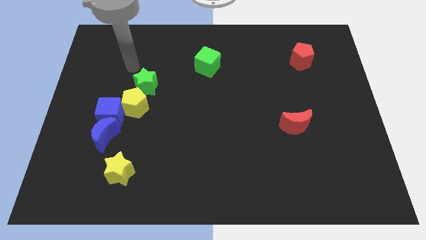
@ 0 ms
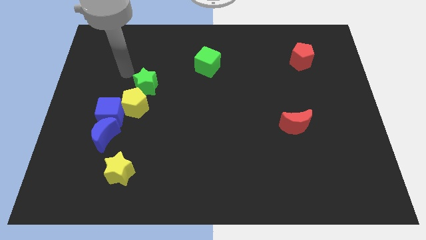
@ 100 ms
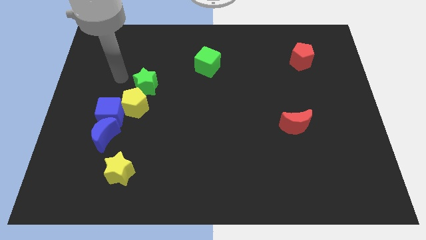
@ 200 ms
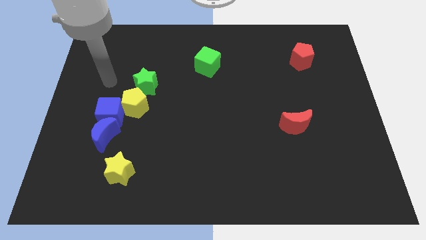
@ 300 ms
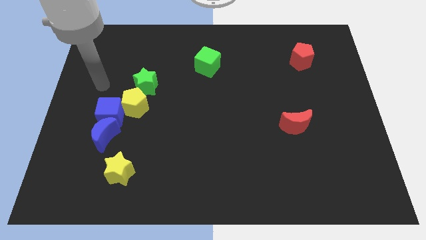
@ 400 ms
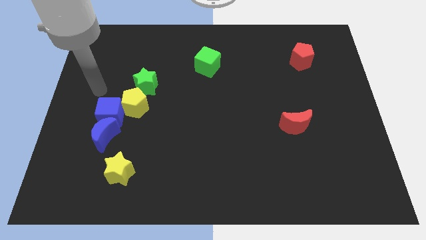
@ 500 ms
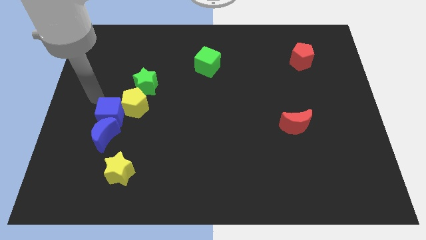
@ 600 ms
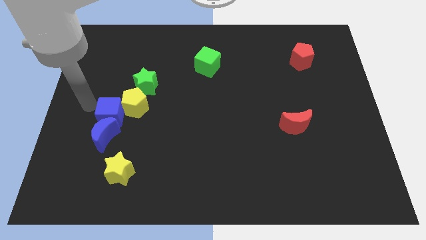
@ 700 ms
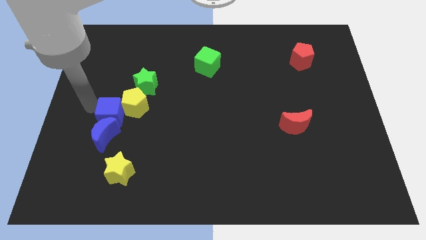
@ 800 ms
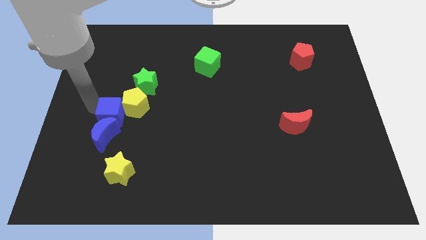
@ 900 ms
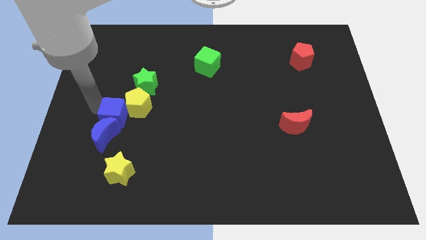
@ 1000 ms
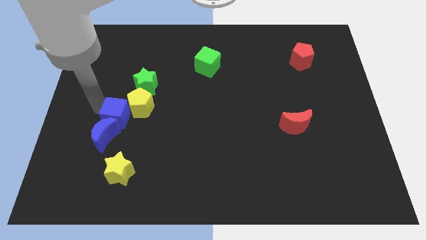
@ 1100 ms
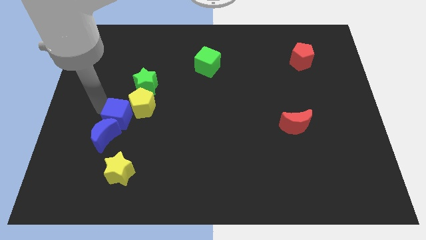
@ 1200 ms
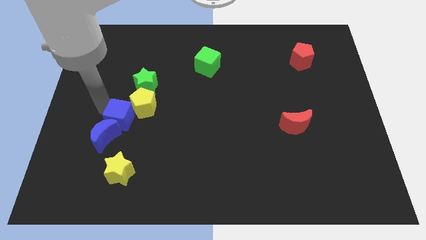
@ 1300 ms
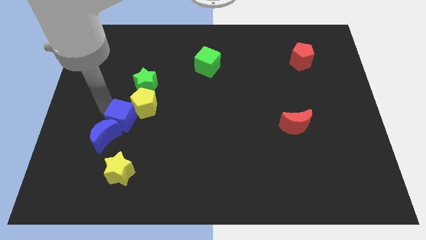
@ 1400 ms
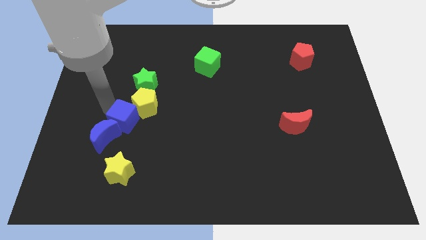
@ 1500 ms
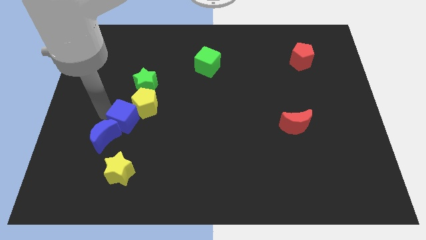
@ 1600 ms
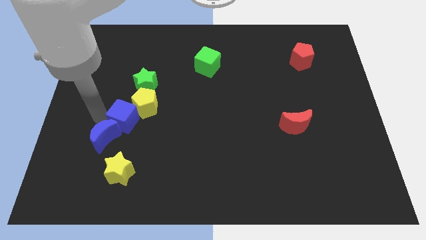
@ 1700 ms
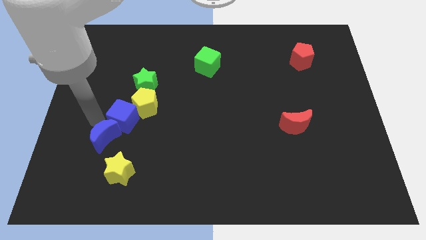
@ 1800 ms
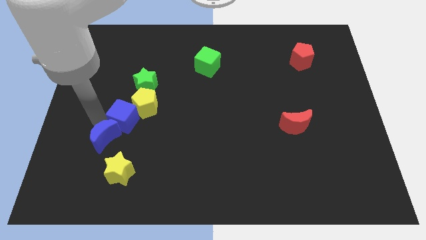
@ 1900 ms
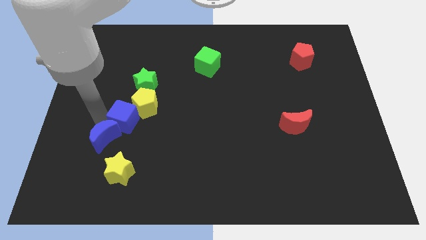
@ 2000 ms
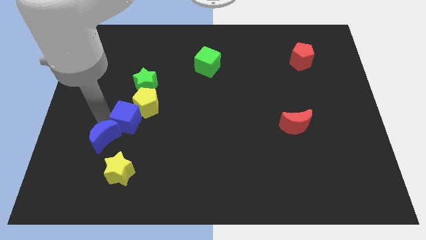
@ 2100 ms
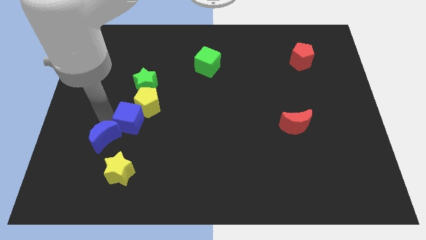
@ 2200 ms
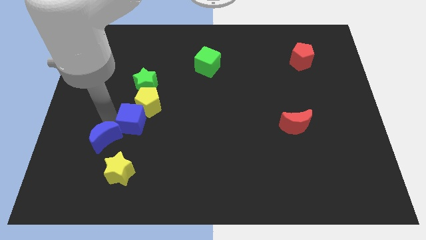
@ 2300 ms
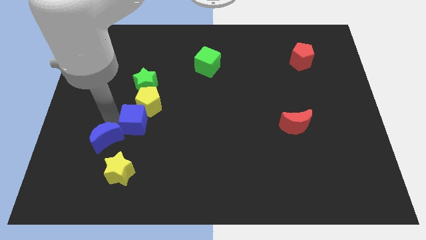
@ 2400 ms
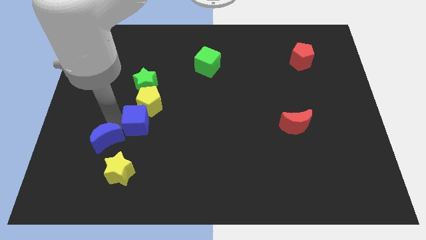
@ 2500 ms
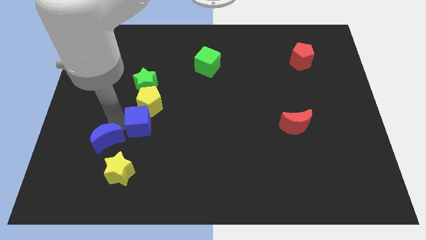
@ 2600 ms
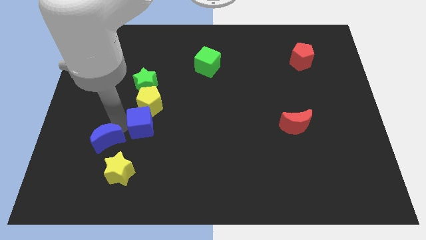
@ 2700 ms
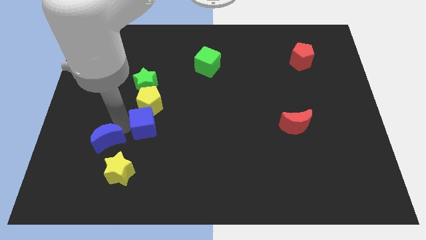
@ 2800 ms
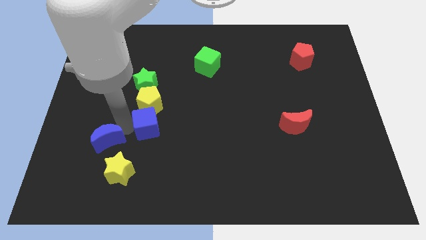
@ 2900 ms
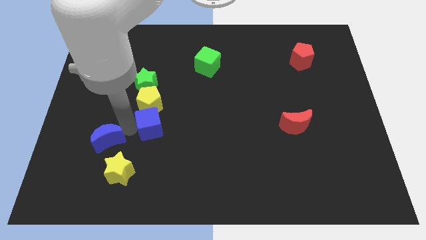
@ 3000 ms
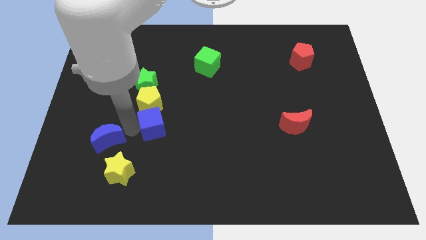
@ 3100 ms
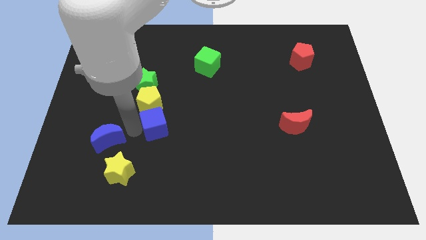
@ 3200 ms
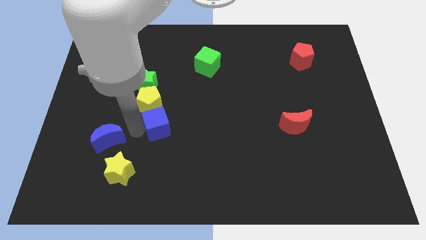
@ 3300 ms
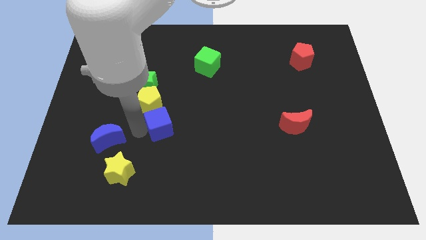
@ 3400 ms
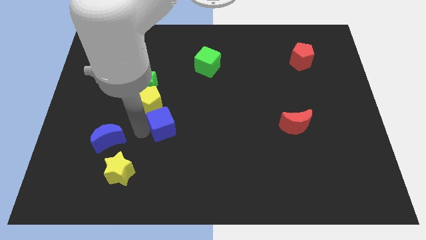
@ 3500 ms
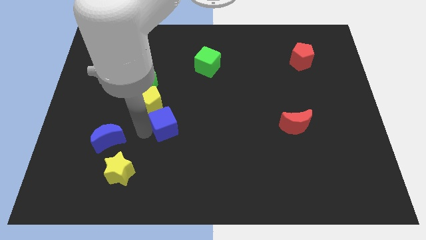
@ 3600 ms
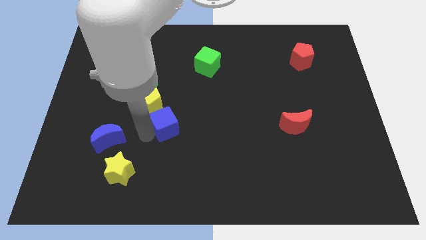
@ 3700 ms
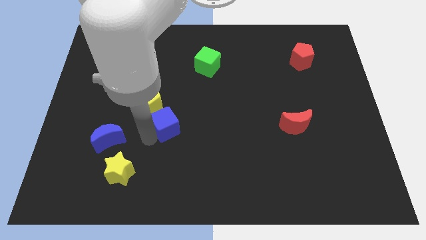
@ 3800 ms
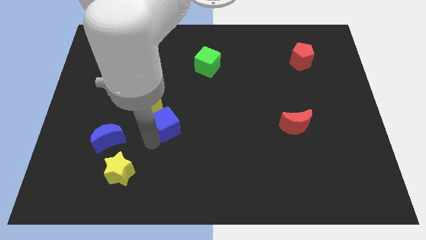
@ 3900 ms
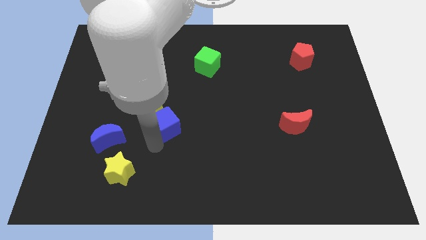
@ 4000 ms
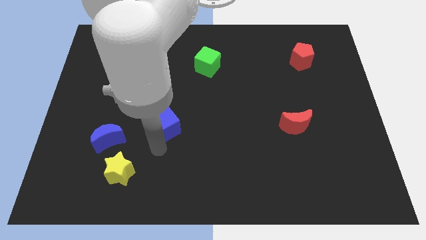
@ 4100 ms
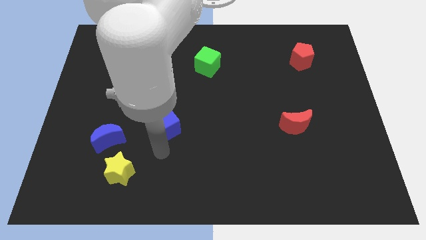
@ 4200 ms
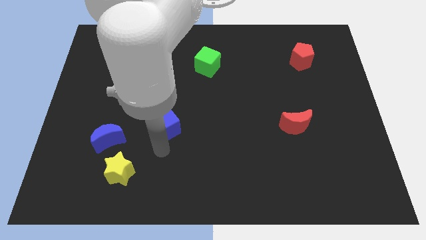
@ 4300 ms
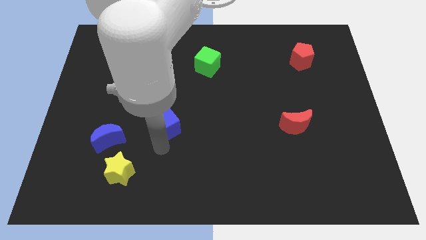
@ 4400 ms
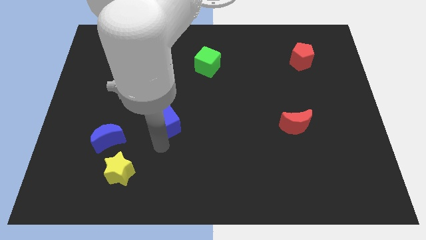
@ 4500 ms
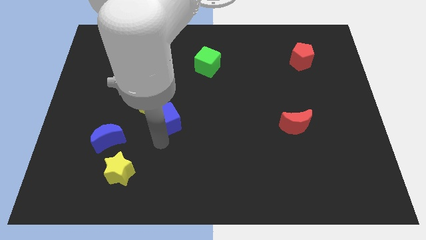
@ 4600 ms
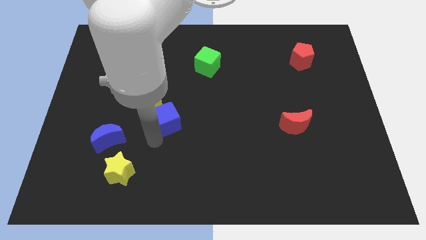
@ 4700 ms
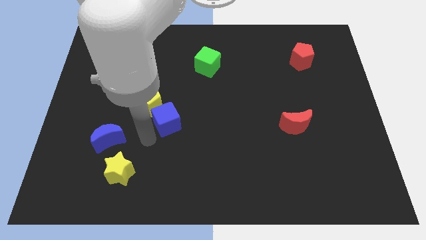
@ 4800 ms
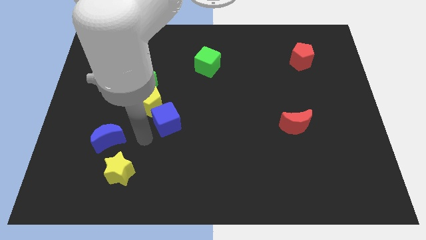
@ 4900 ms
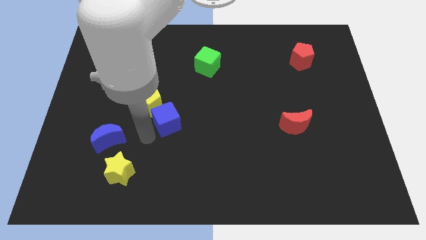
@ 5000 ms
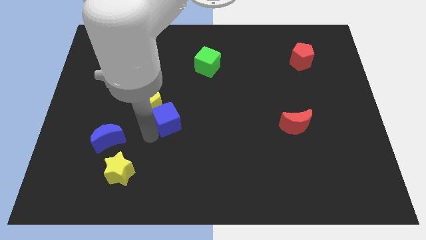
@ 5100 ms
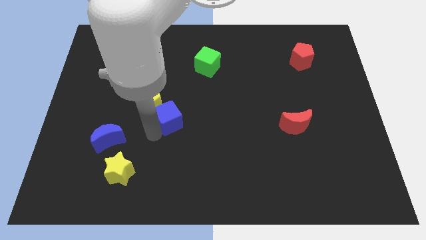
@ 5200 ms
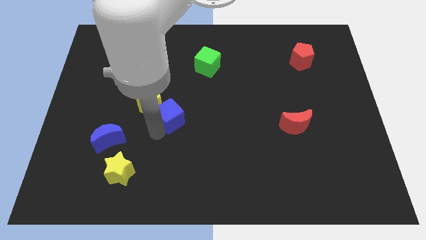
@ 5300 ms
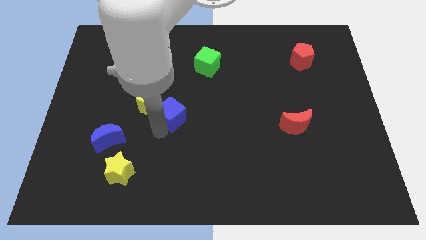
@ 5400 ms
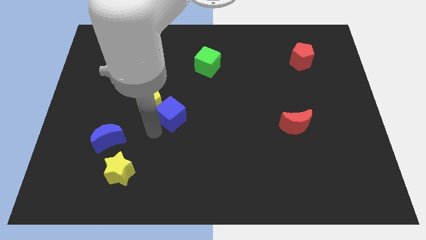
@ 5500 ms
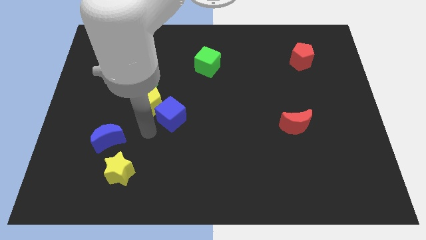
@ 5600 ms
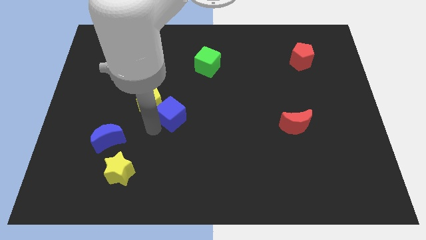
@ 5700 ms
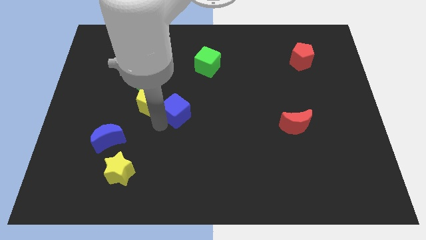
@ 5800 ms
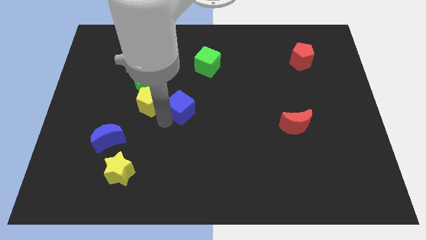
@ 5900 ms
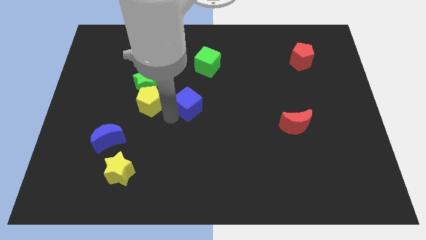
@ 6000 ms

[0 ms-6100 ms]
put the blue cube below the green cube
